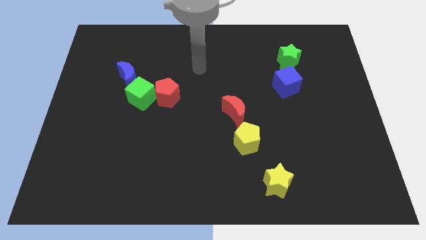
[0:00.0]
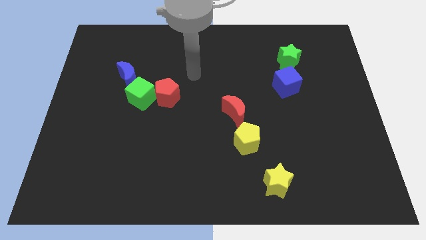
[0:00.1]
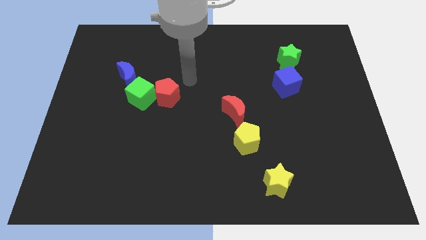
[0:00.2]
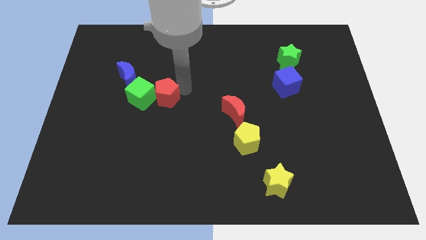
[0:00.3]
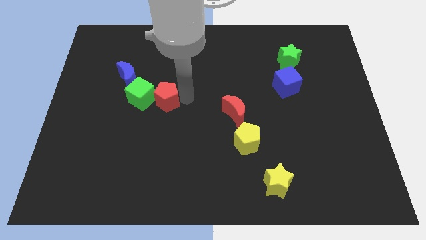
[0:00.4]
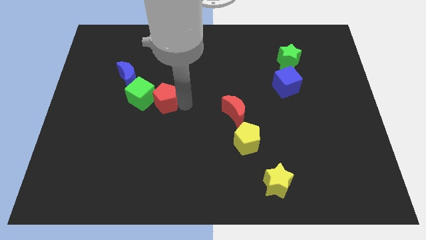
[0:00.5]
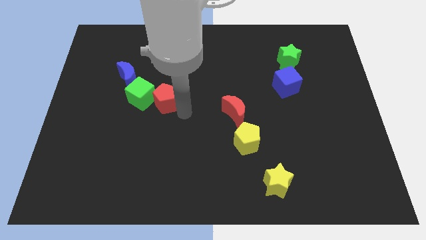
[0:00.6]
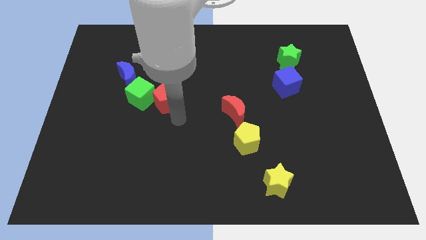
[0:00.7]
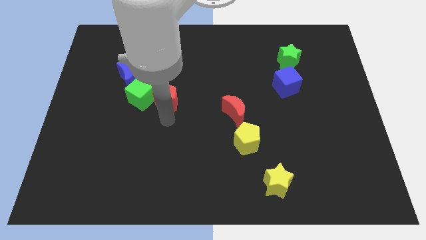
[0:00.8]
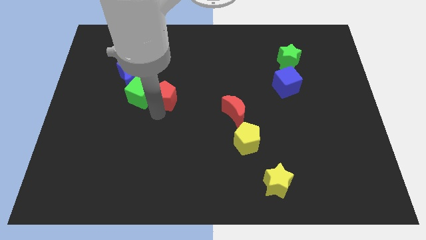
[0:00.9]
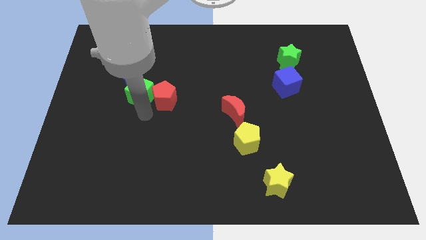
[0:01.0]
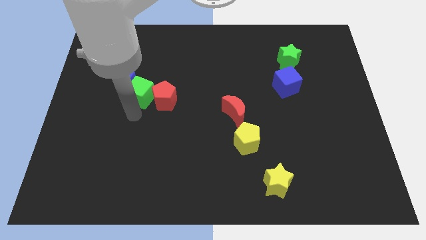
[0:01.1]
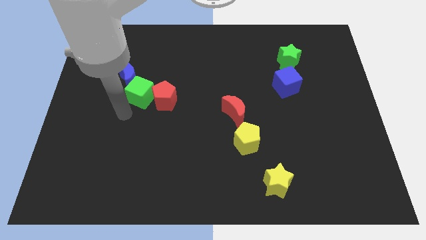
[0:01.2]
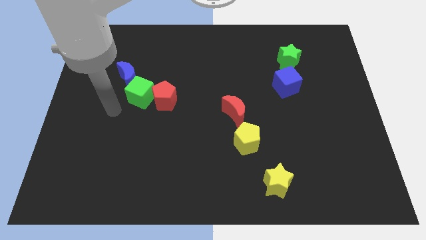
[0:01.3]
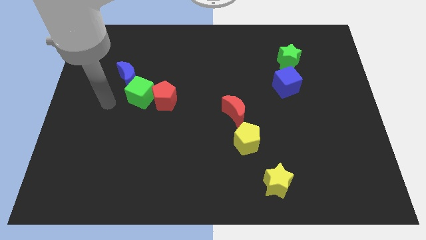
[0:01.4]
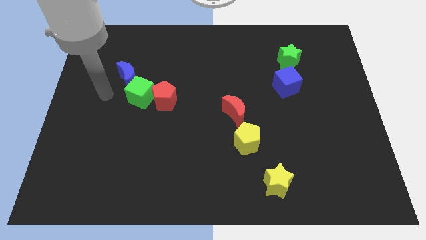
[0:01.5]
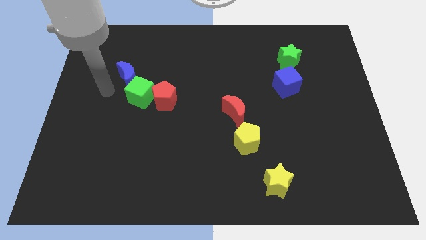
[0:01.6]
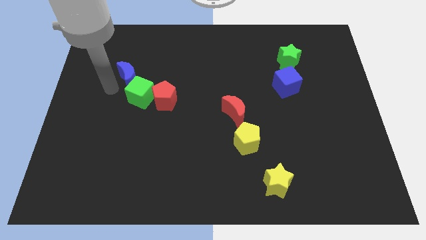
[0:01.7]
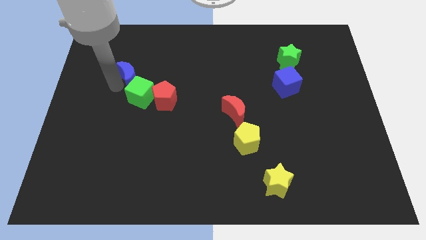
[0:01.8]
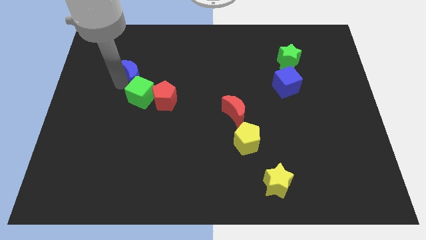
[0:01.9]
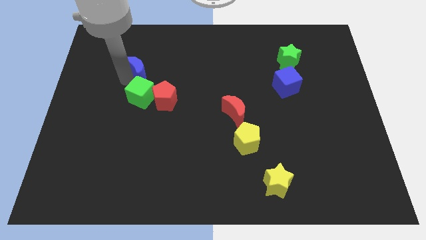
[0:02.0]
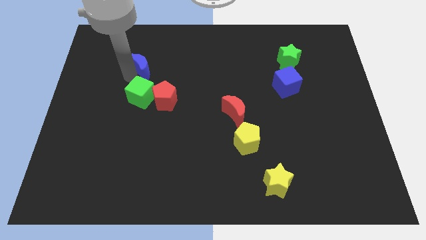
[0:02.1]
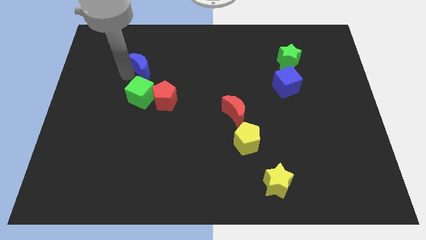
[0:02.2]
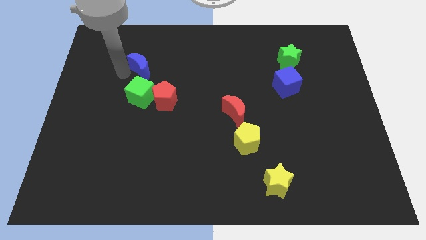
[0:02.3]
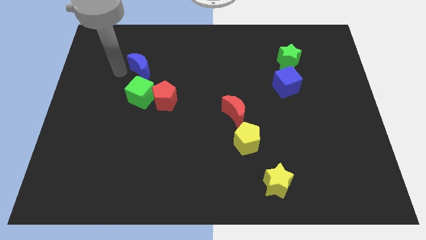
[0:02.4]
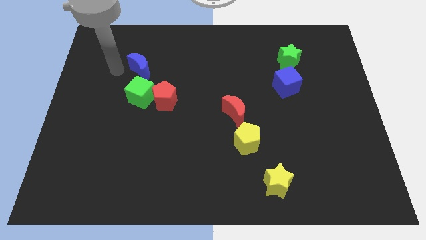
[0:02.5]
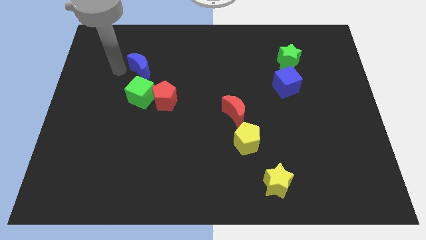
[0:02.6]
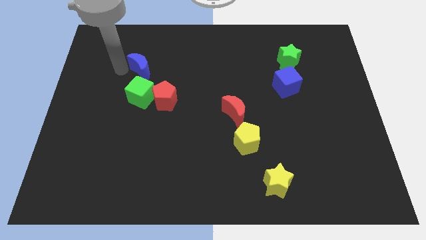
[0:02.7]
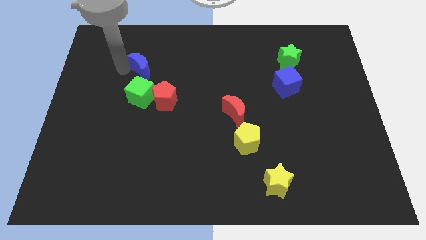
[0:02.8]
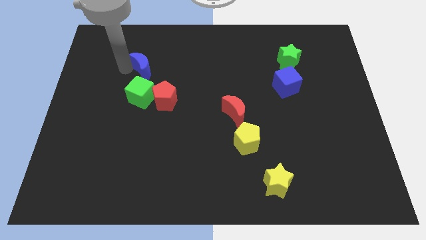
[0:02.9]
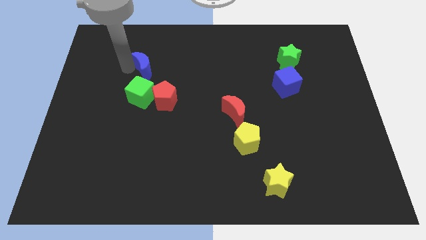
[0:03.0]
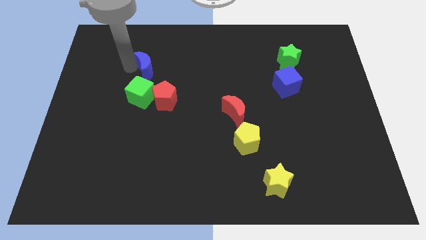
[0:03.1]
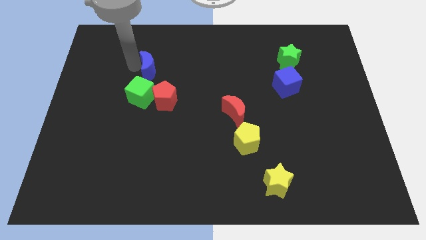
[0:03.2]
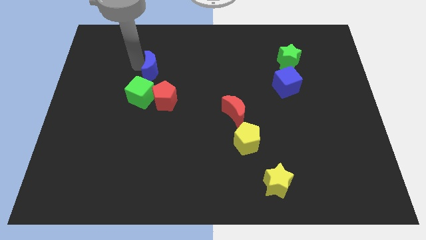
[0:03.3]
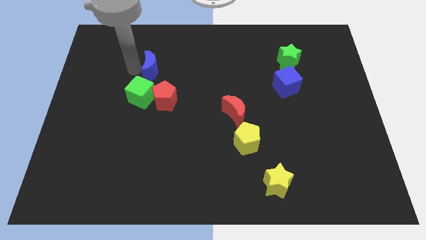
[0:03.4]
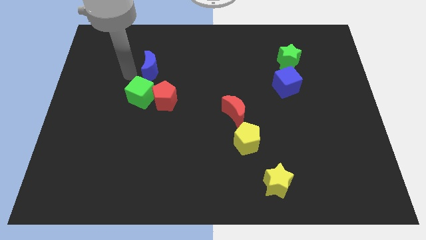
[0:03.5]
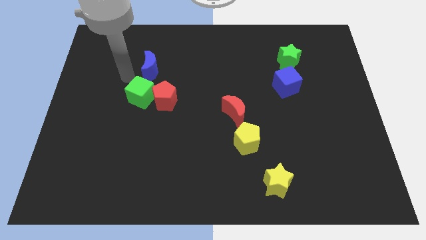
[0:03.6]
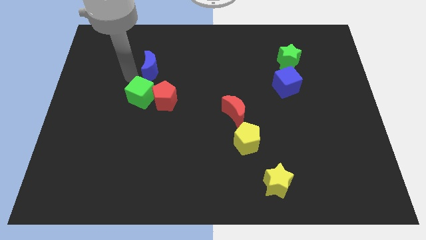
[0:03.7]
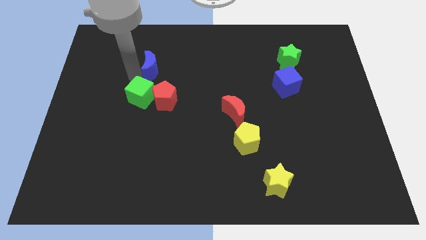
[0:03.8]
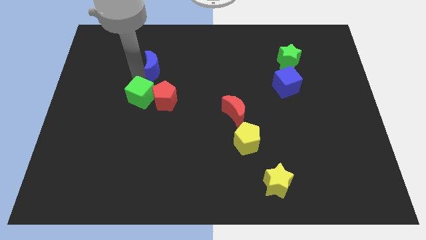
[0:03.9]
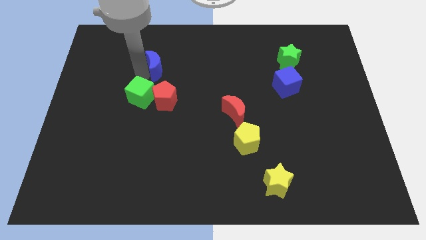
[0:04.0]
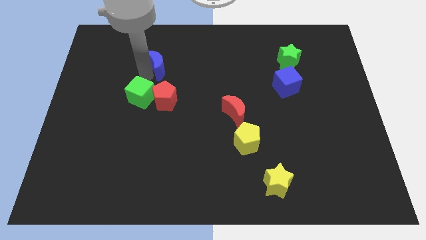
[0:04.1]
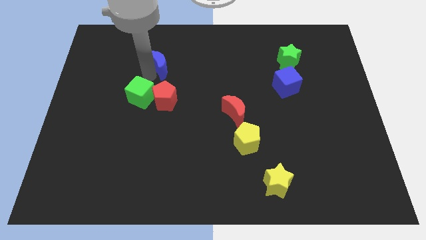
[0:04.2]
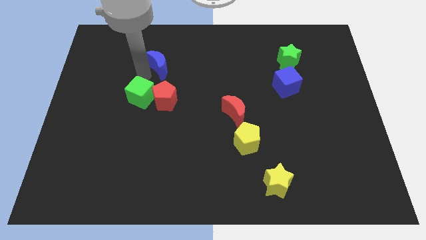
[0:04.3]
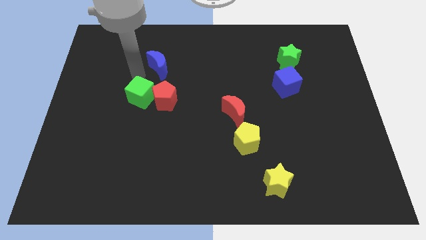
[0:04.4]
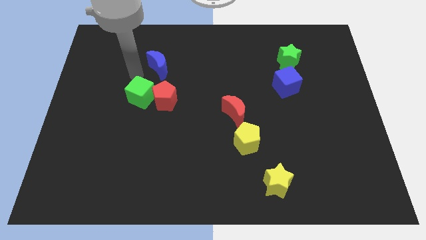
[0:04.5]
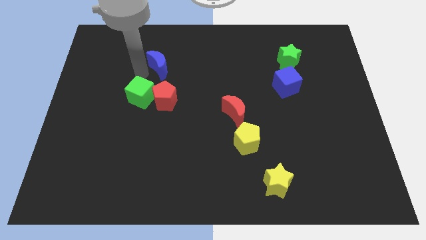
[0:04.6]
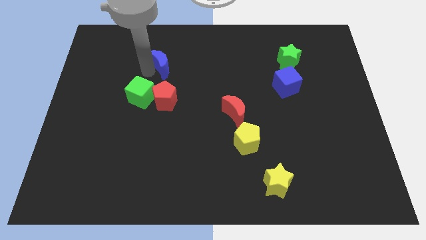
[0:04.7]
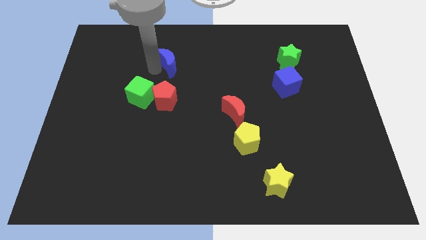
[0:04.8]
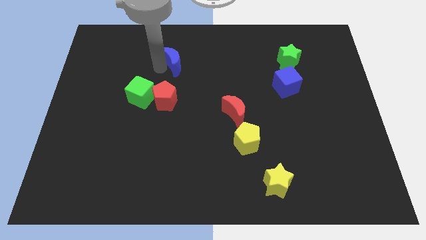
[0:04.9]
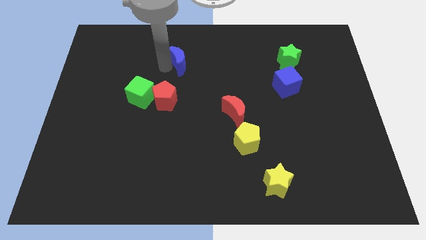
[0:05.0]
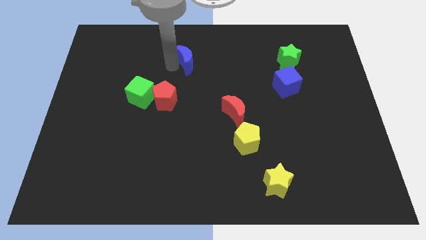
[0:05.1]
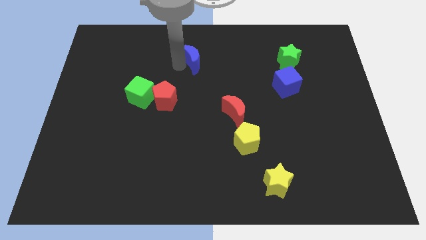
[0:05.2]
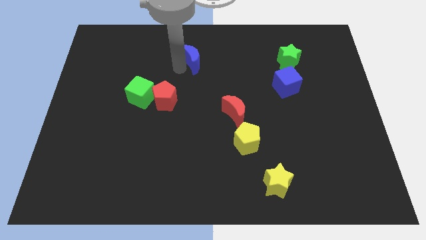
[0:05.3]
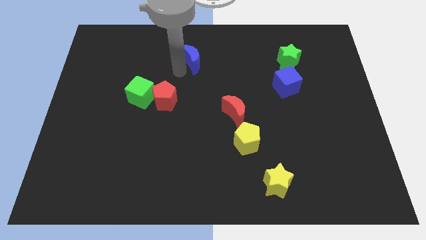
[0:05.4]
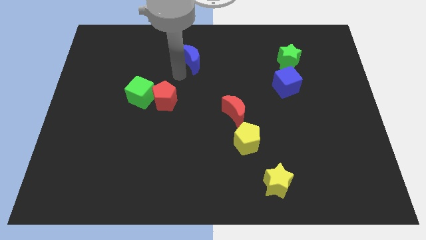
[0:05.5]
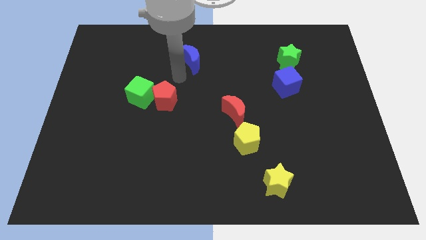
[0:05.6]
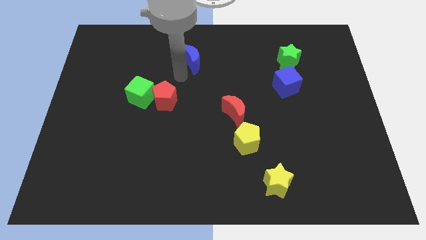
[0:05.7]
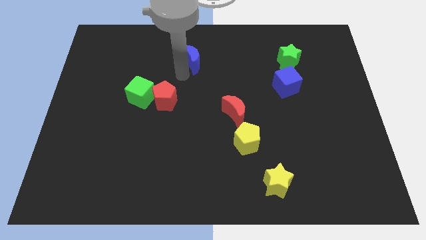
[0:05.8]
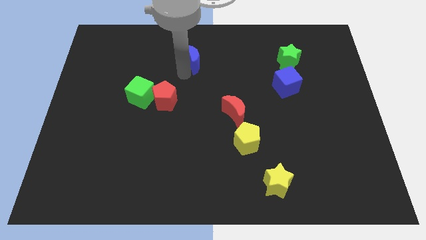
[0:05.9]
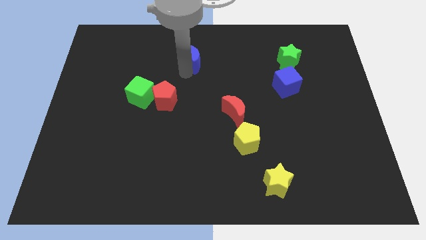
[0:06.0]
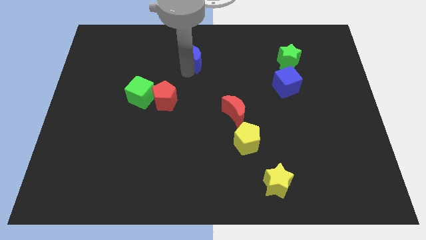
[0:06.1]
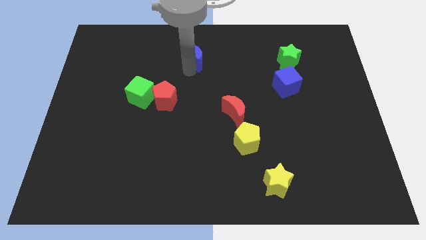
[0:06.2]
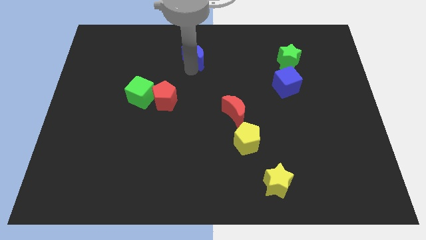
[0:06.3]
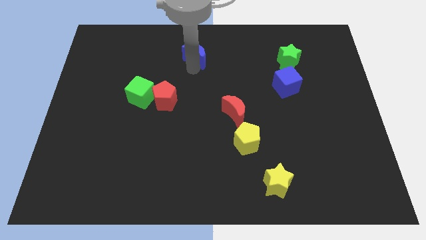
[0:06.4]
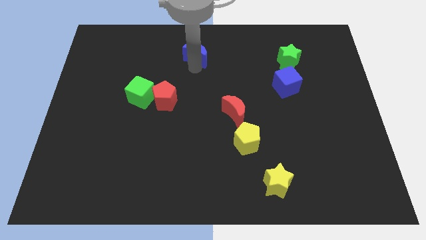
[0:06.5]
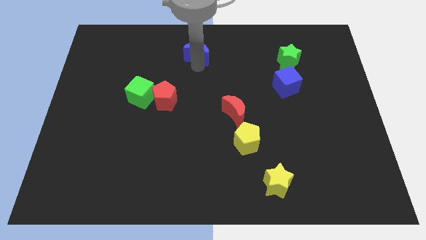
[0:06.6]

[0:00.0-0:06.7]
move the blue moon to the top

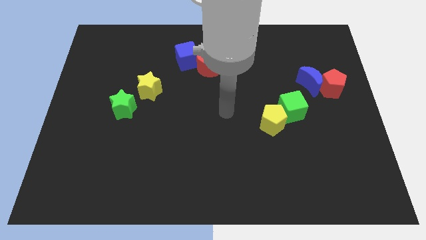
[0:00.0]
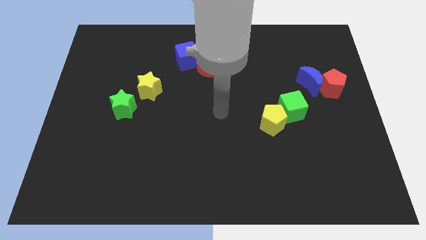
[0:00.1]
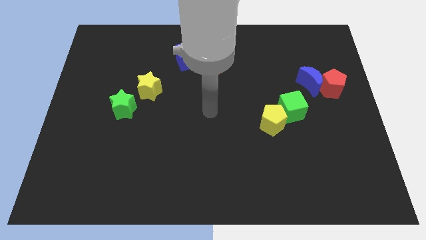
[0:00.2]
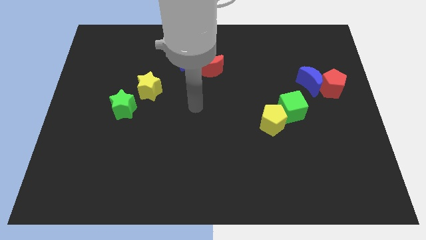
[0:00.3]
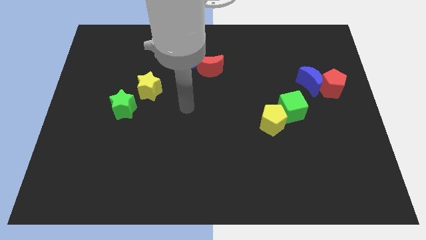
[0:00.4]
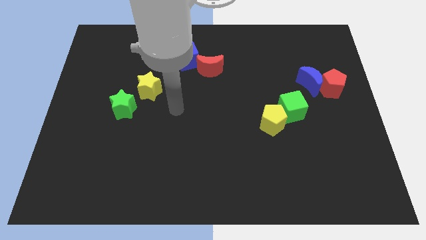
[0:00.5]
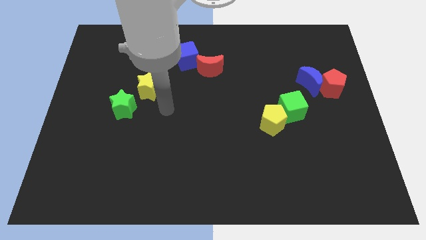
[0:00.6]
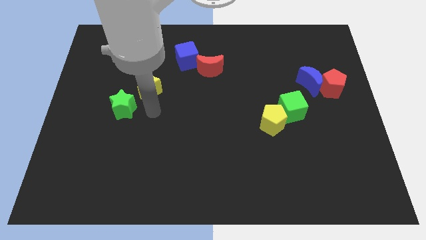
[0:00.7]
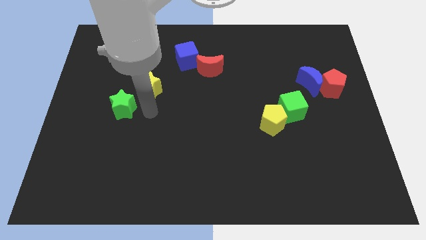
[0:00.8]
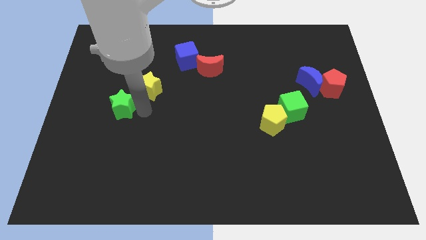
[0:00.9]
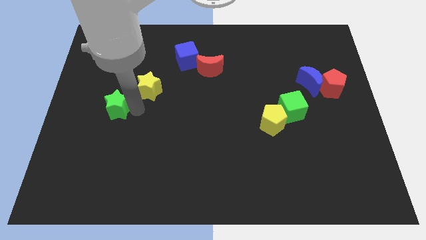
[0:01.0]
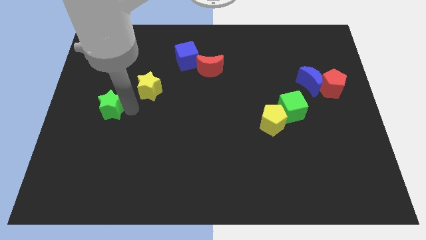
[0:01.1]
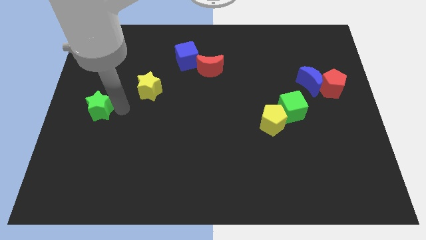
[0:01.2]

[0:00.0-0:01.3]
put the green star to the left side
